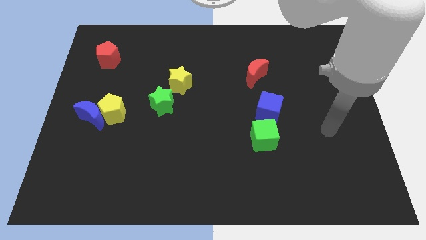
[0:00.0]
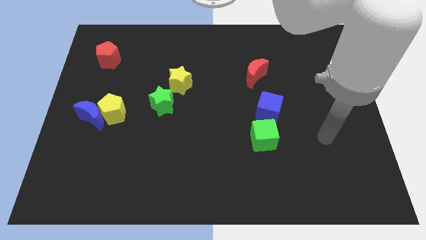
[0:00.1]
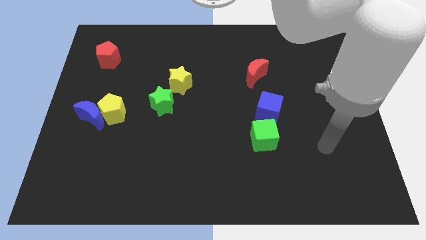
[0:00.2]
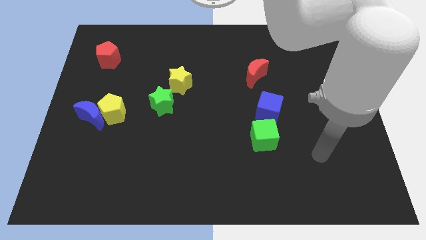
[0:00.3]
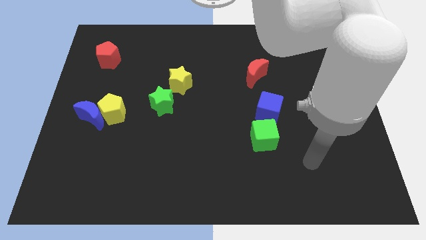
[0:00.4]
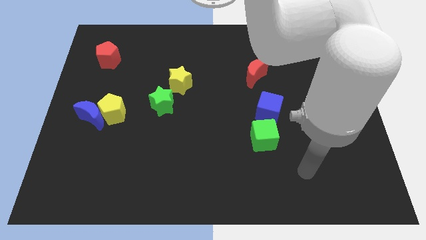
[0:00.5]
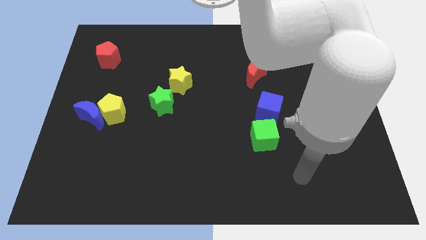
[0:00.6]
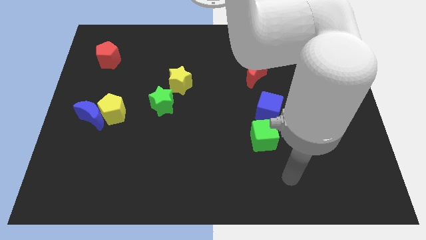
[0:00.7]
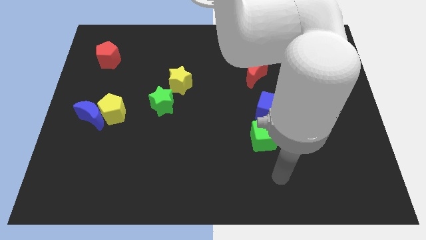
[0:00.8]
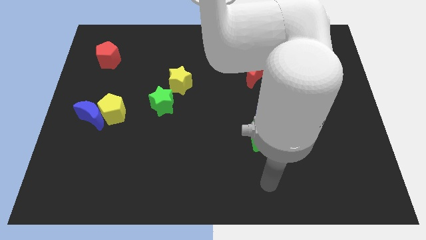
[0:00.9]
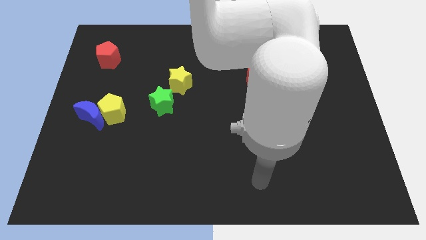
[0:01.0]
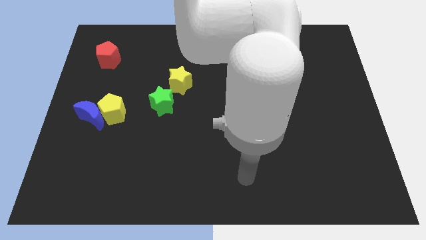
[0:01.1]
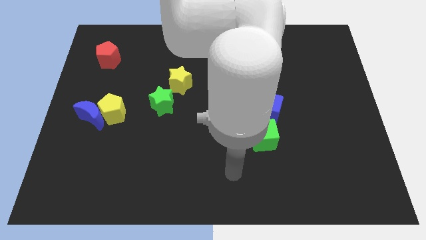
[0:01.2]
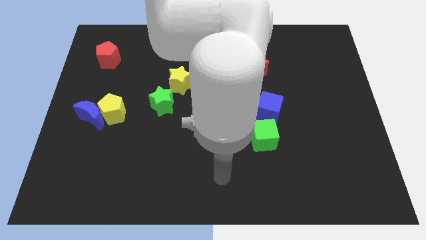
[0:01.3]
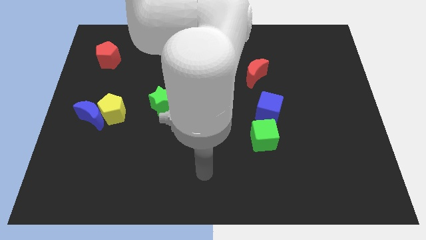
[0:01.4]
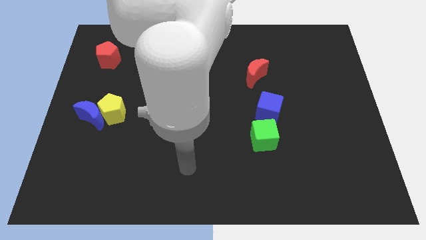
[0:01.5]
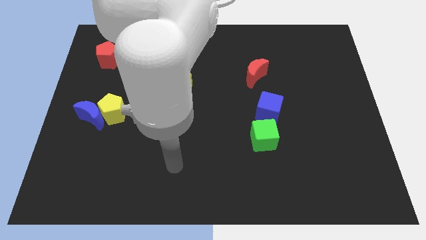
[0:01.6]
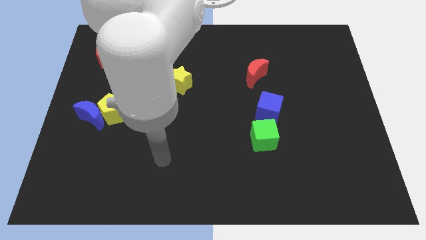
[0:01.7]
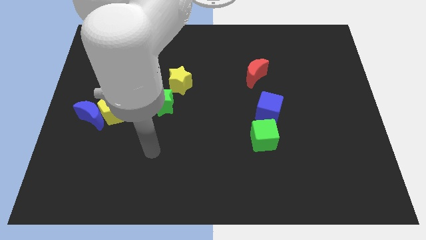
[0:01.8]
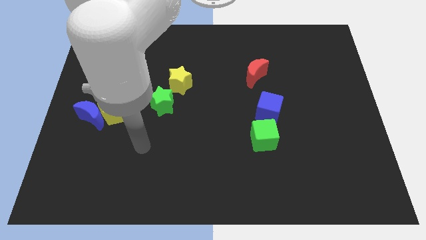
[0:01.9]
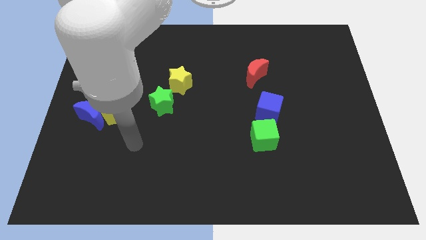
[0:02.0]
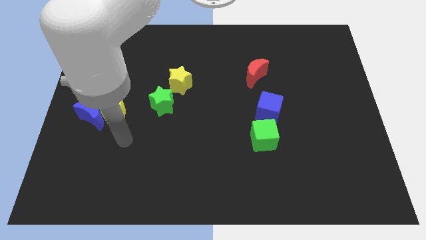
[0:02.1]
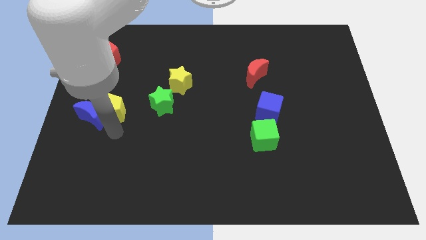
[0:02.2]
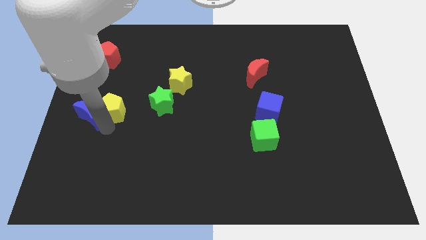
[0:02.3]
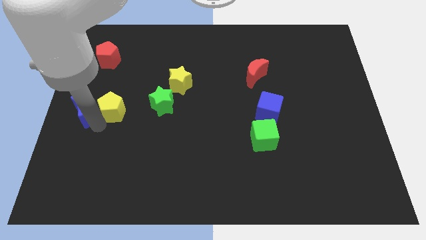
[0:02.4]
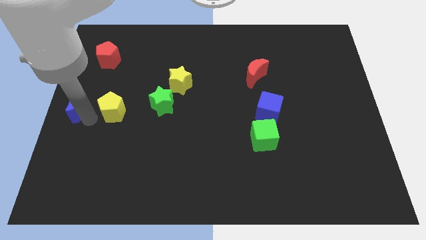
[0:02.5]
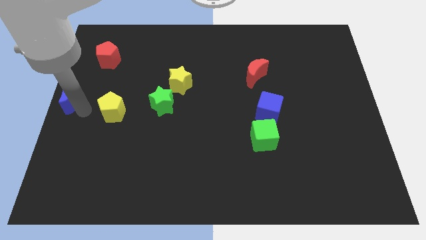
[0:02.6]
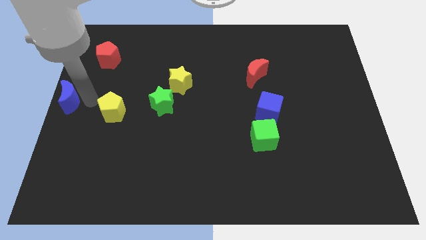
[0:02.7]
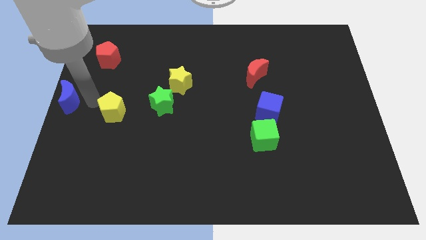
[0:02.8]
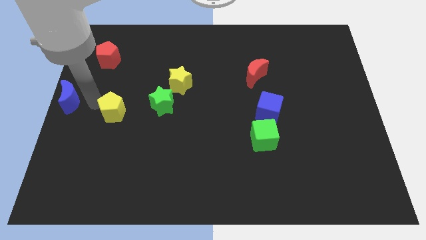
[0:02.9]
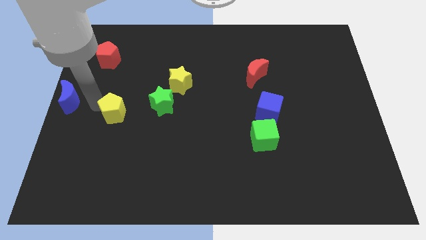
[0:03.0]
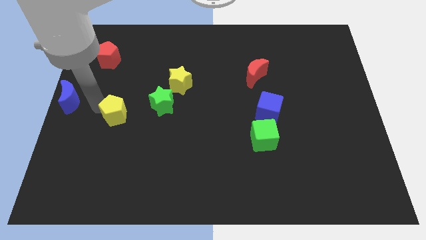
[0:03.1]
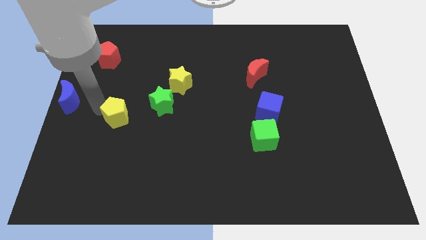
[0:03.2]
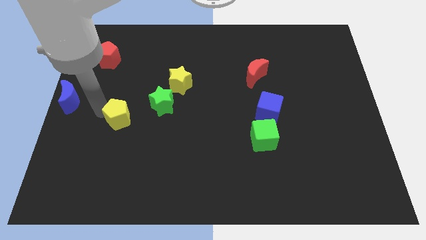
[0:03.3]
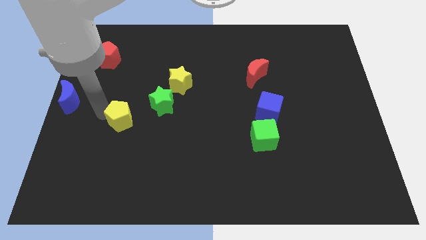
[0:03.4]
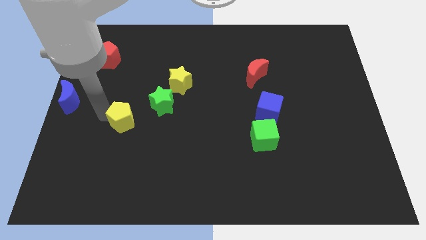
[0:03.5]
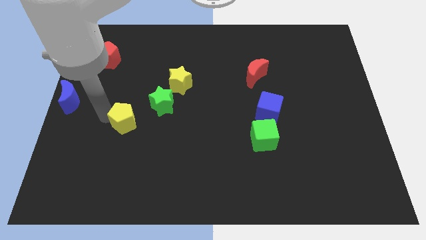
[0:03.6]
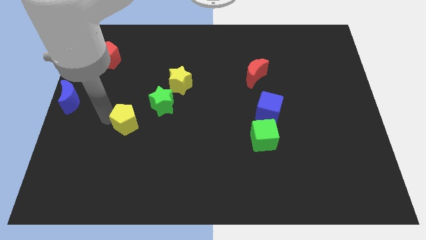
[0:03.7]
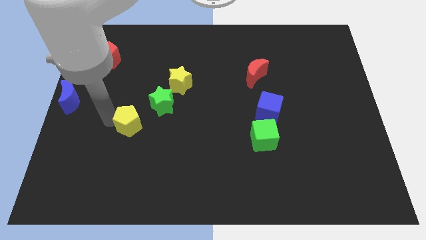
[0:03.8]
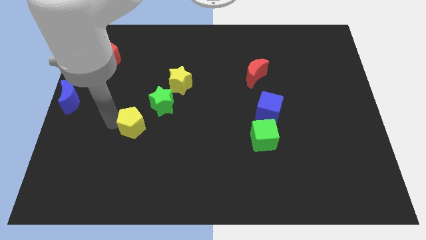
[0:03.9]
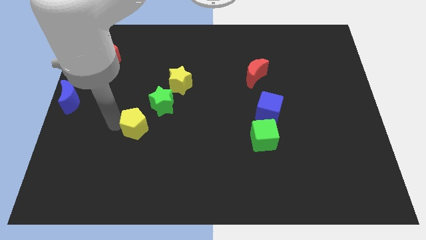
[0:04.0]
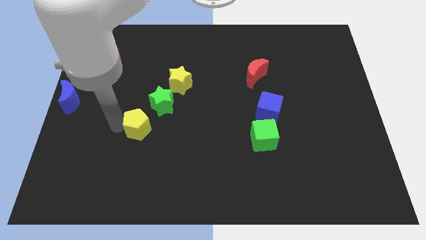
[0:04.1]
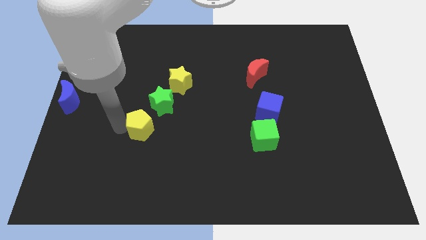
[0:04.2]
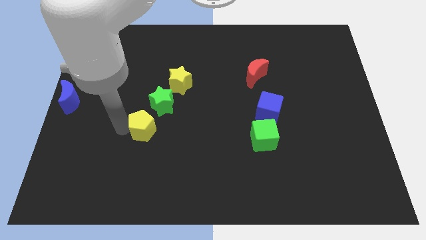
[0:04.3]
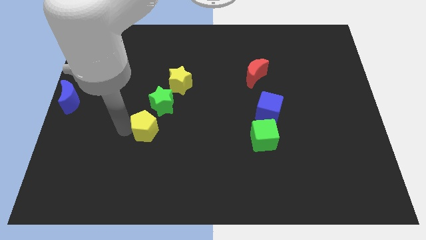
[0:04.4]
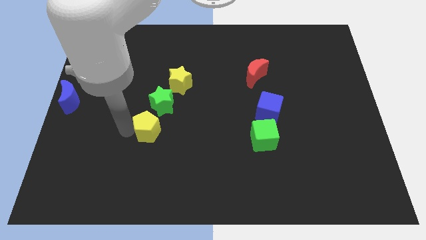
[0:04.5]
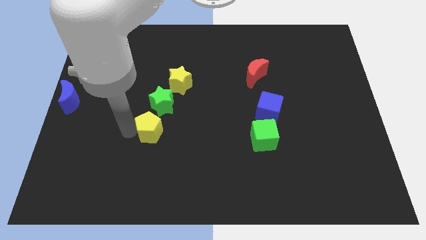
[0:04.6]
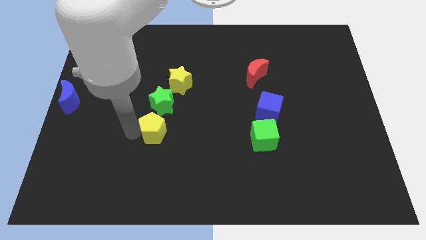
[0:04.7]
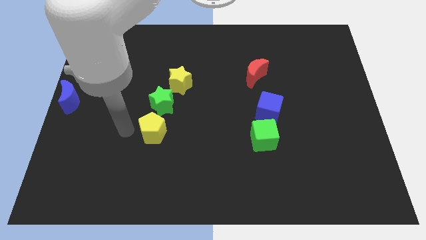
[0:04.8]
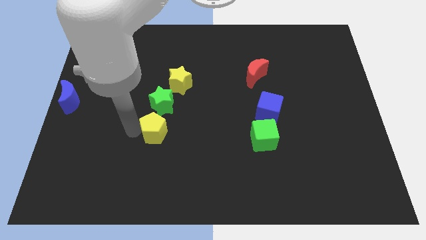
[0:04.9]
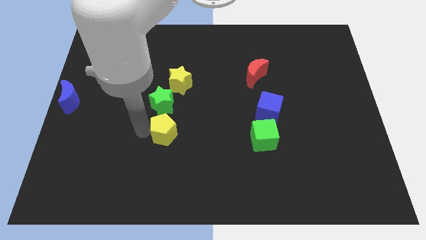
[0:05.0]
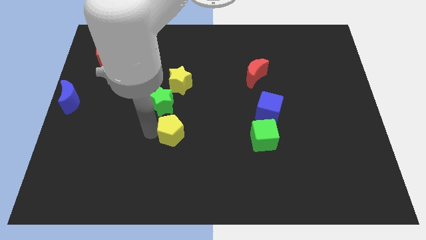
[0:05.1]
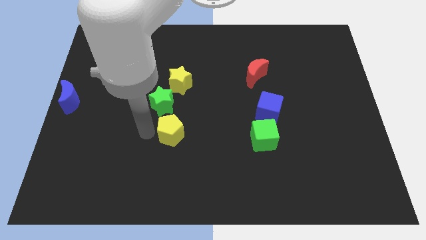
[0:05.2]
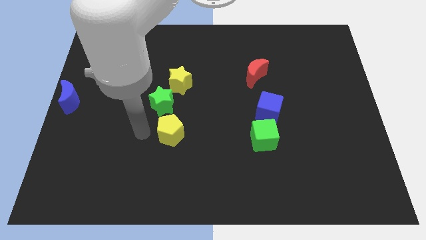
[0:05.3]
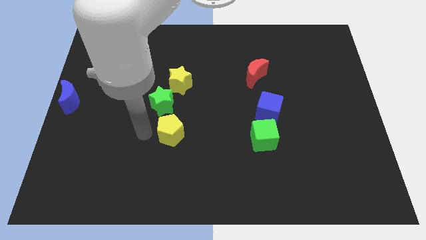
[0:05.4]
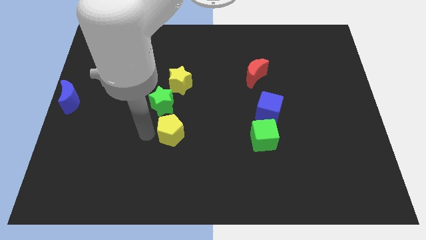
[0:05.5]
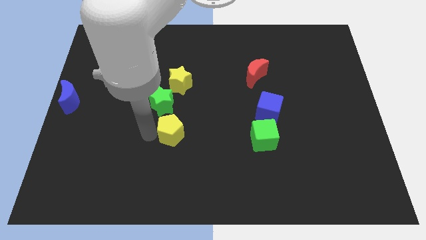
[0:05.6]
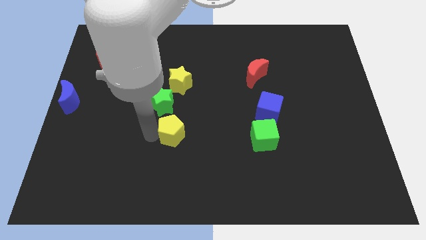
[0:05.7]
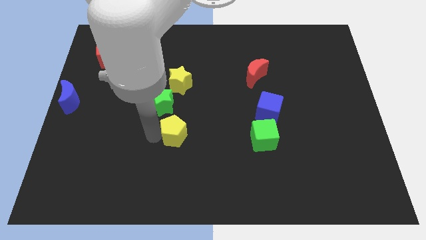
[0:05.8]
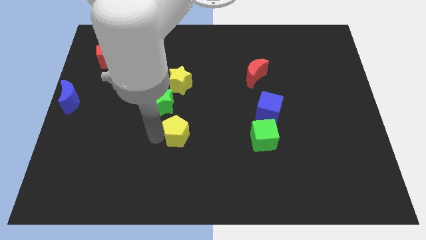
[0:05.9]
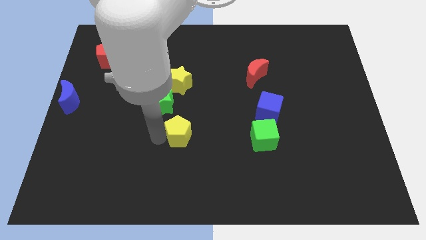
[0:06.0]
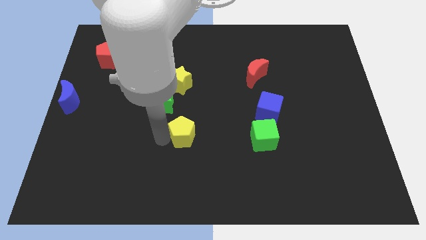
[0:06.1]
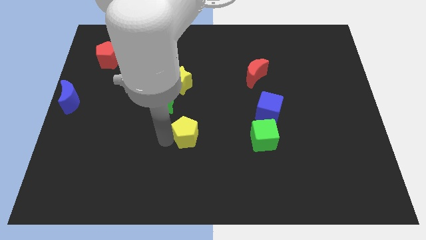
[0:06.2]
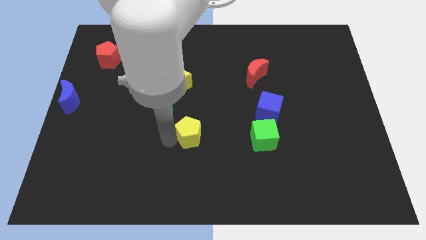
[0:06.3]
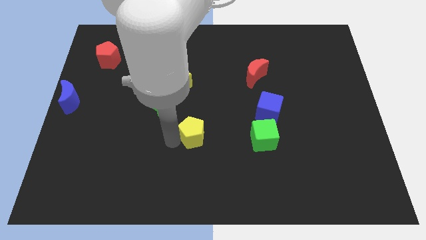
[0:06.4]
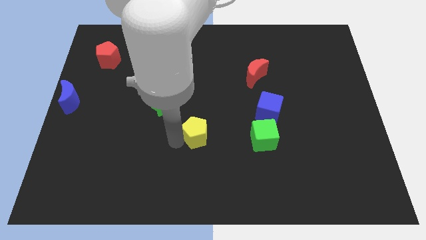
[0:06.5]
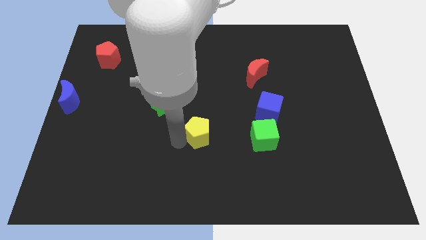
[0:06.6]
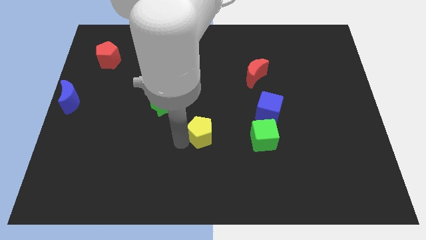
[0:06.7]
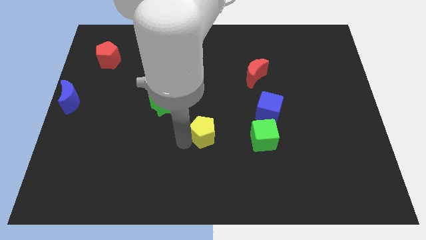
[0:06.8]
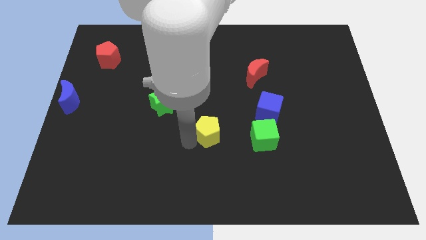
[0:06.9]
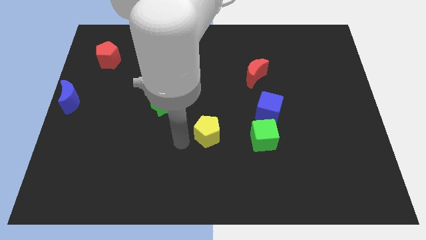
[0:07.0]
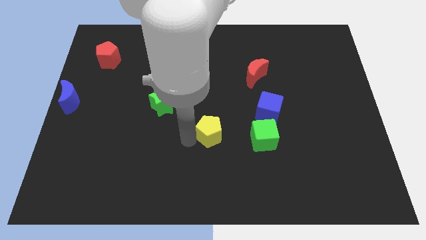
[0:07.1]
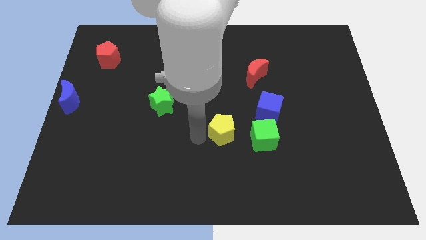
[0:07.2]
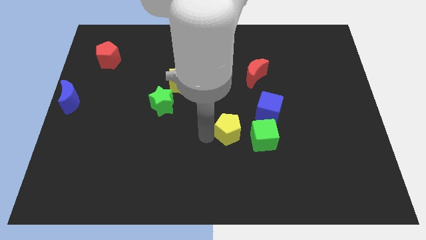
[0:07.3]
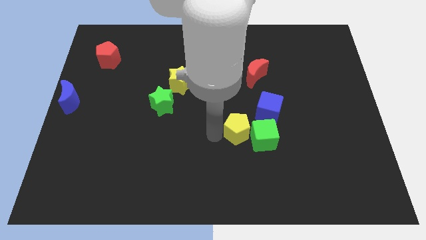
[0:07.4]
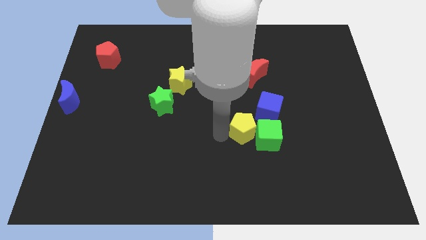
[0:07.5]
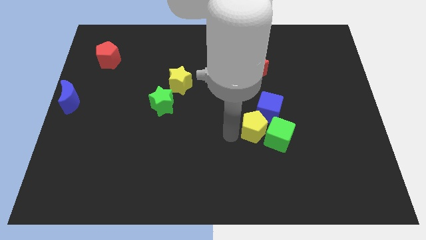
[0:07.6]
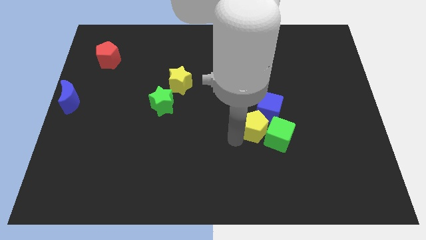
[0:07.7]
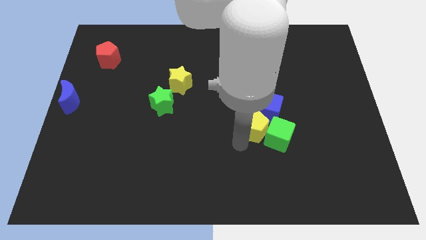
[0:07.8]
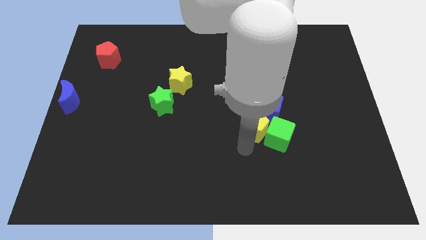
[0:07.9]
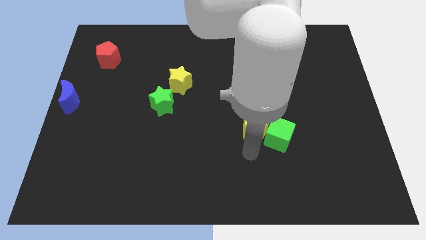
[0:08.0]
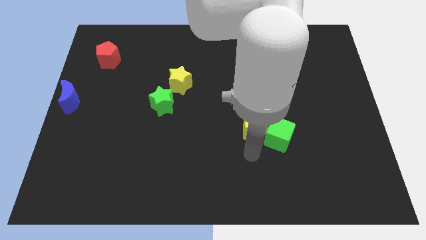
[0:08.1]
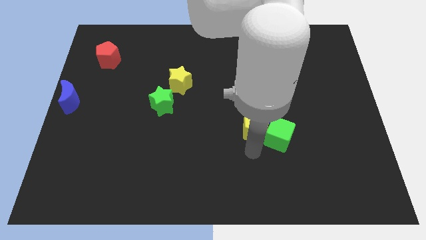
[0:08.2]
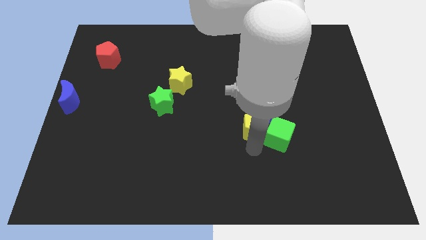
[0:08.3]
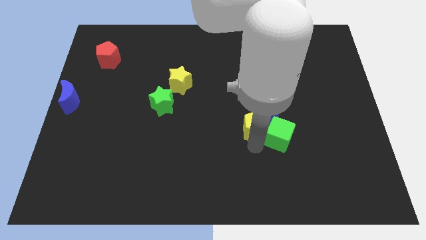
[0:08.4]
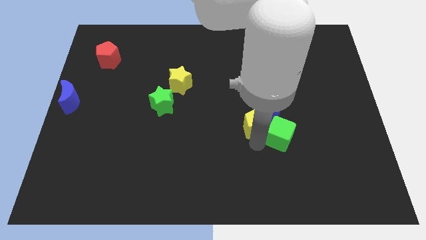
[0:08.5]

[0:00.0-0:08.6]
push the yellow pentagon below the red moon
